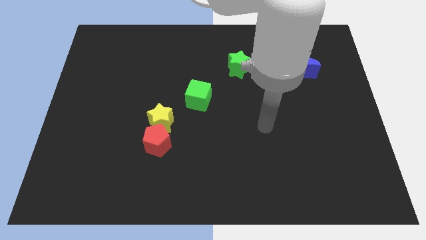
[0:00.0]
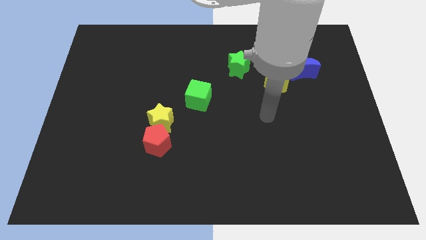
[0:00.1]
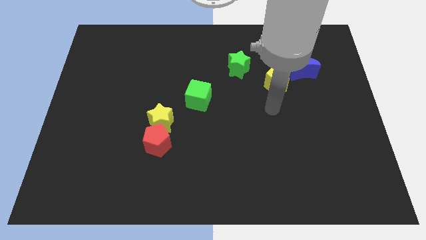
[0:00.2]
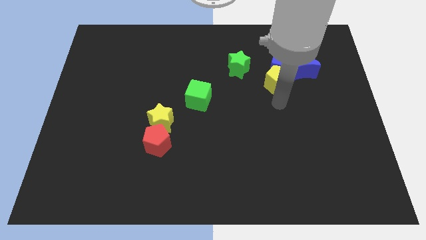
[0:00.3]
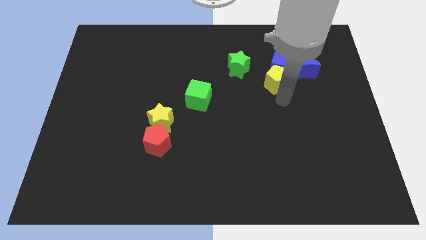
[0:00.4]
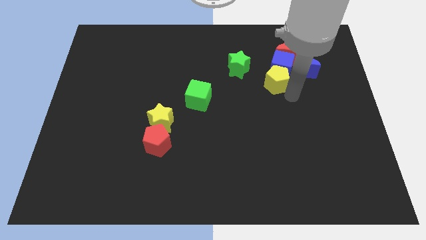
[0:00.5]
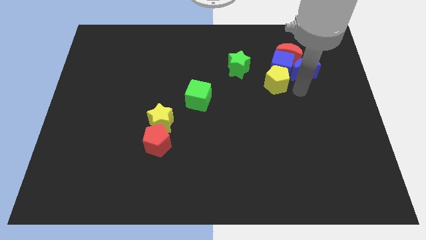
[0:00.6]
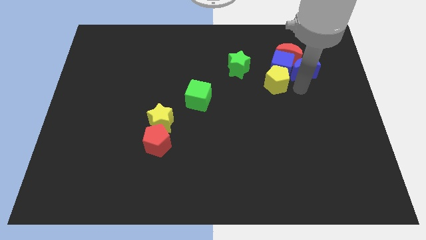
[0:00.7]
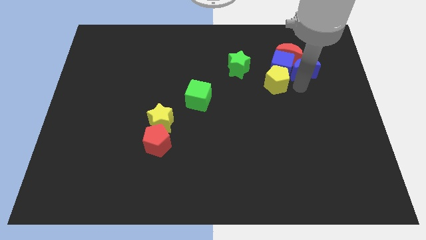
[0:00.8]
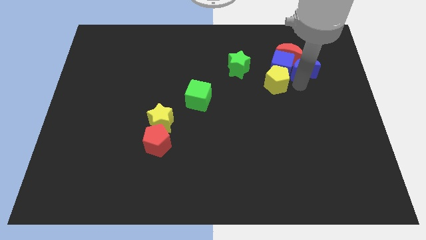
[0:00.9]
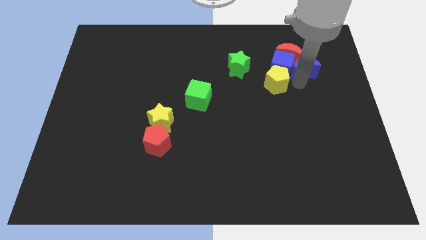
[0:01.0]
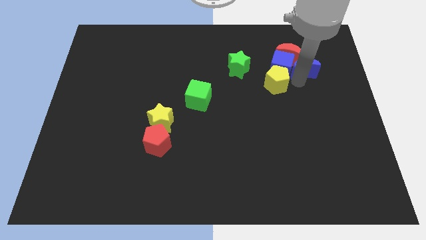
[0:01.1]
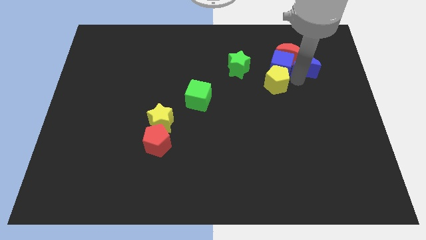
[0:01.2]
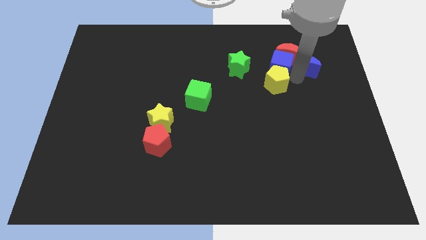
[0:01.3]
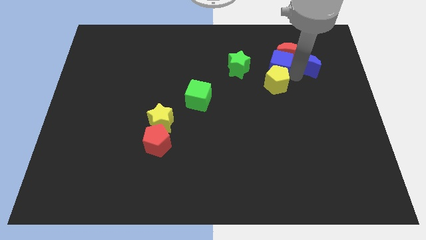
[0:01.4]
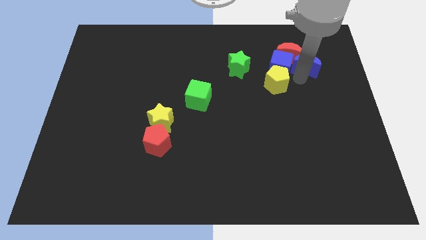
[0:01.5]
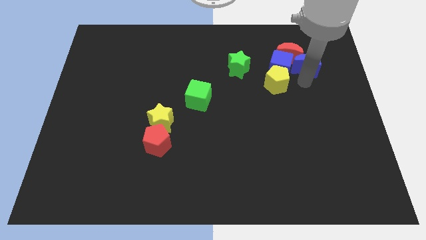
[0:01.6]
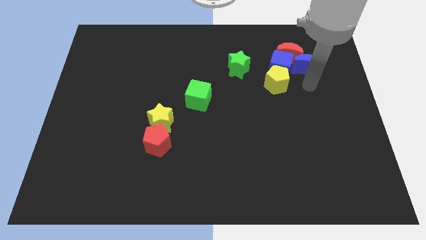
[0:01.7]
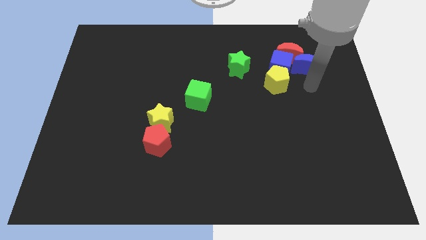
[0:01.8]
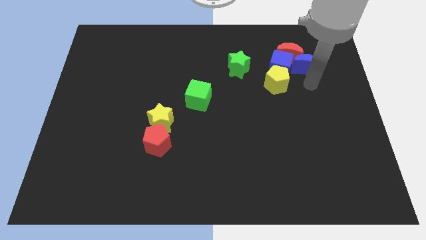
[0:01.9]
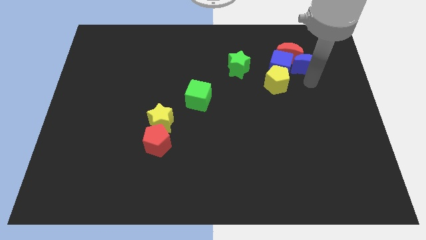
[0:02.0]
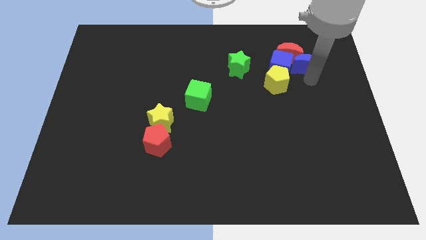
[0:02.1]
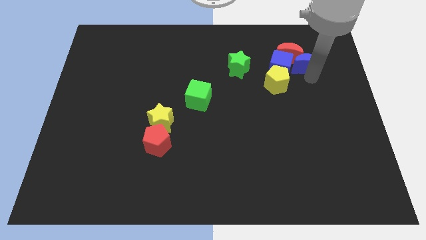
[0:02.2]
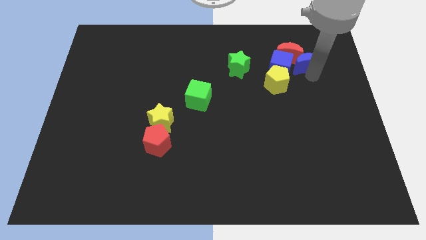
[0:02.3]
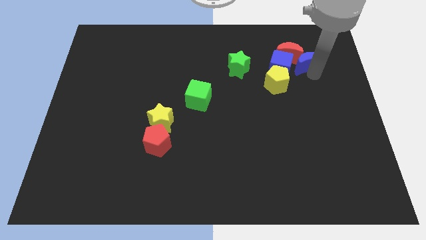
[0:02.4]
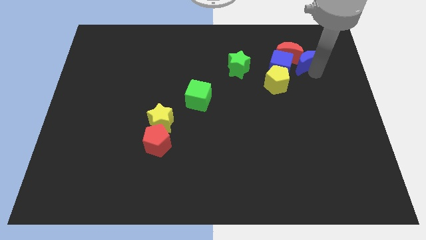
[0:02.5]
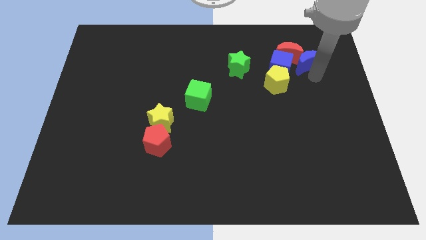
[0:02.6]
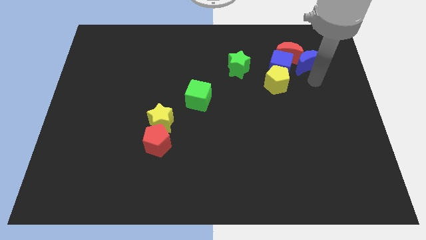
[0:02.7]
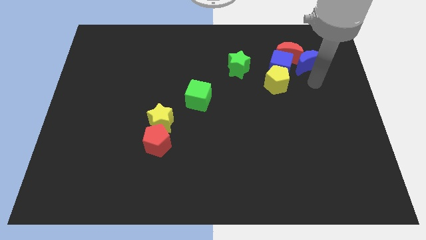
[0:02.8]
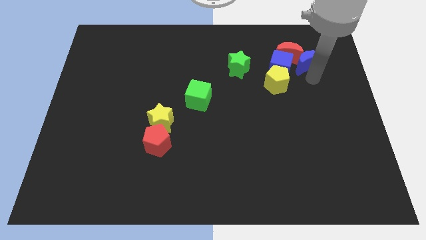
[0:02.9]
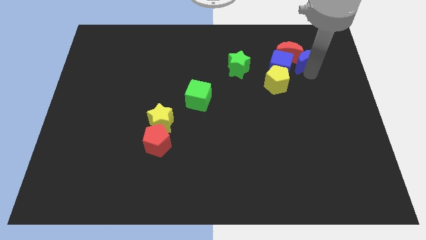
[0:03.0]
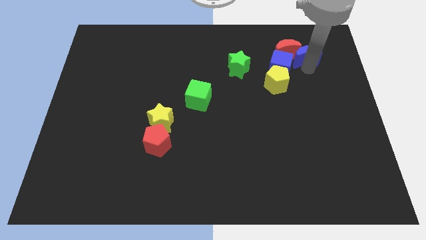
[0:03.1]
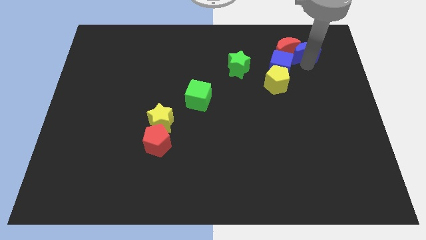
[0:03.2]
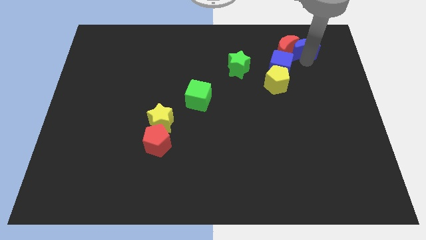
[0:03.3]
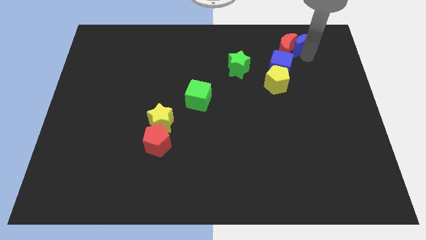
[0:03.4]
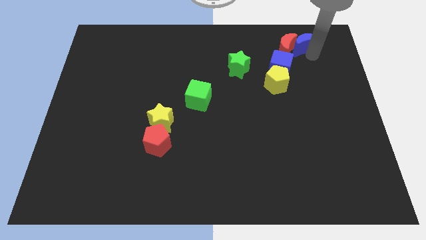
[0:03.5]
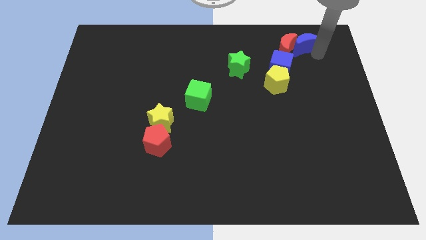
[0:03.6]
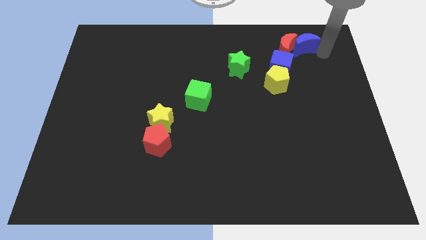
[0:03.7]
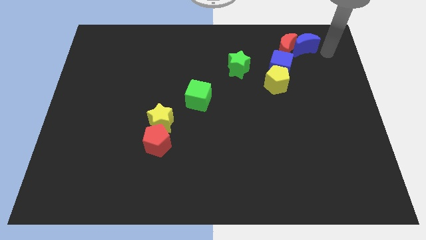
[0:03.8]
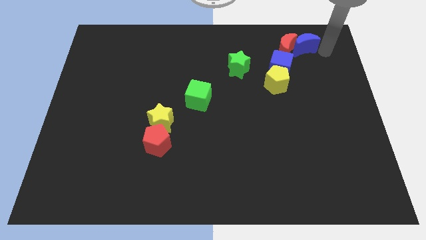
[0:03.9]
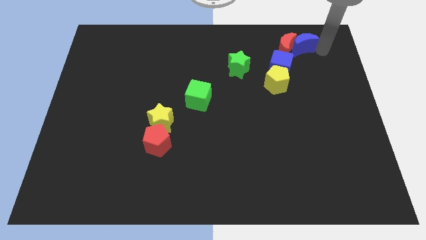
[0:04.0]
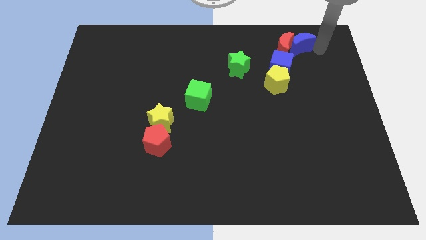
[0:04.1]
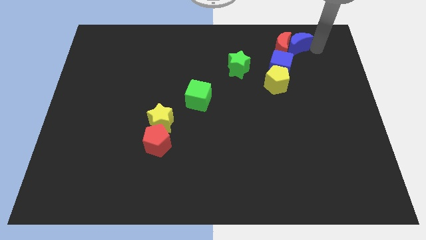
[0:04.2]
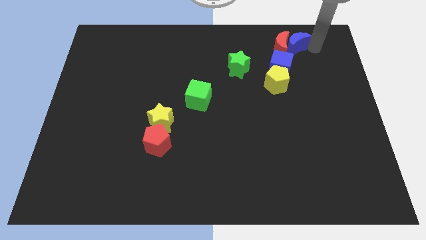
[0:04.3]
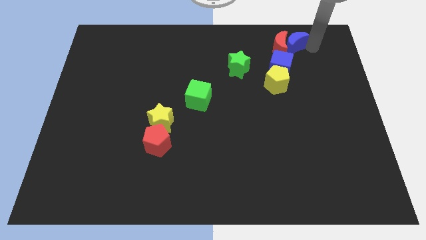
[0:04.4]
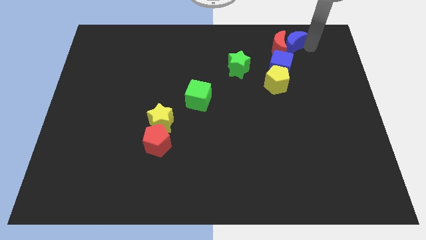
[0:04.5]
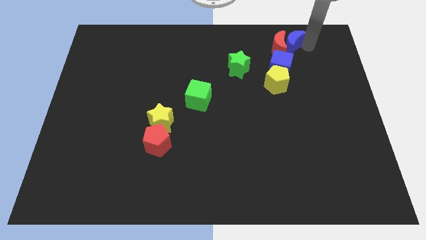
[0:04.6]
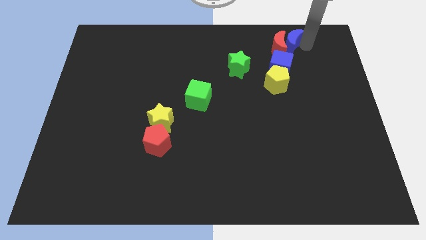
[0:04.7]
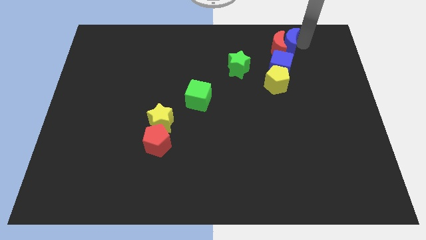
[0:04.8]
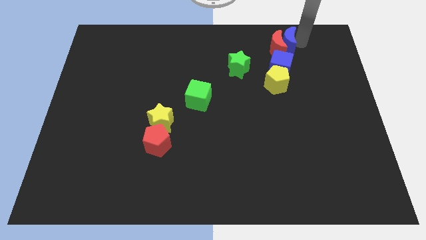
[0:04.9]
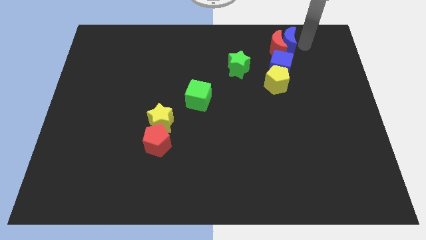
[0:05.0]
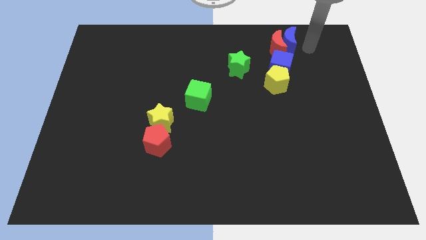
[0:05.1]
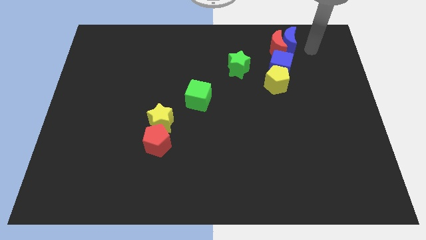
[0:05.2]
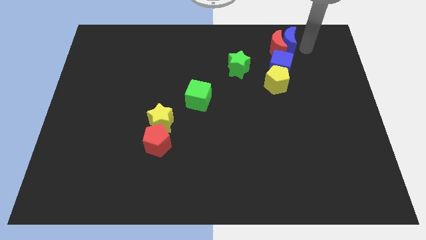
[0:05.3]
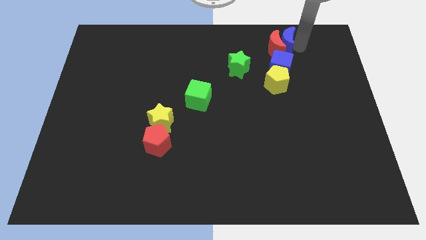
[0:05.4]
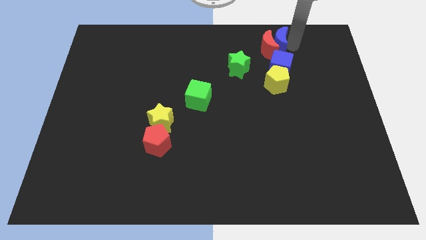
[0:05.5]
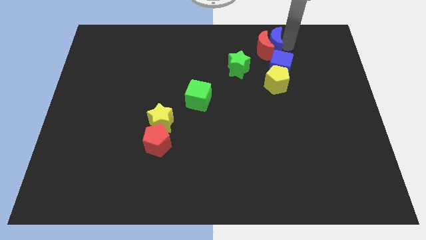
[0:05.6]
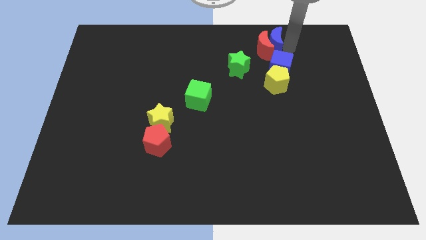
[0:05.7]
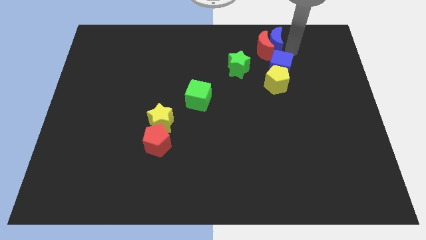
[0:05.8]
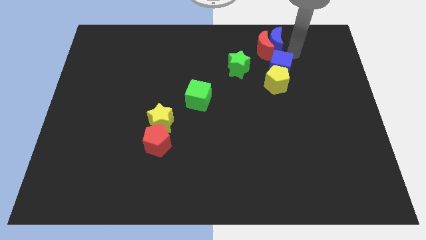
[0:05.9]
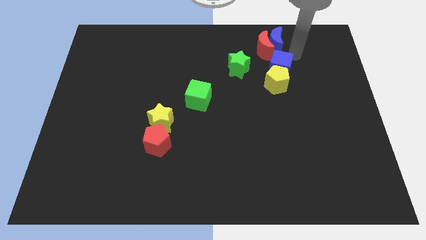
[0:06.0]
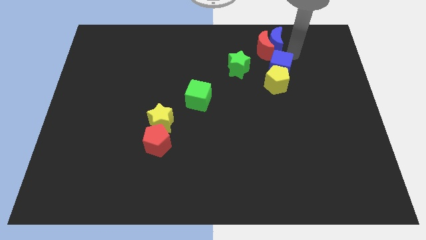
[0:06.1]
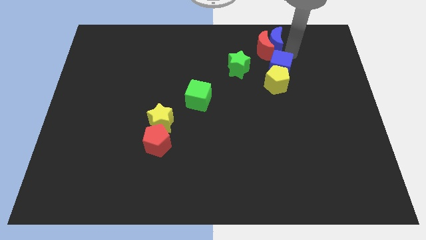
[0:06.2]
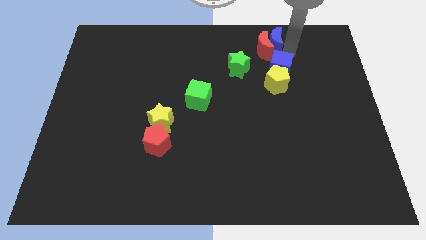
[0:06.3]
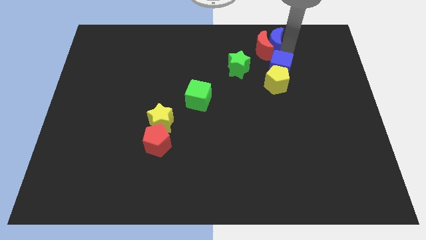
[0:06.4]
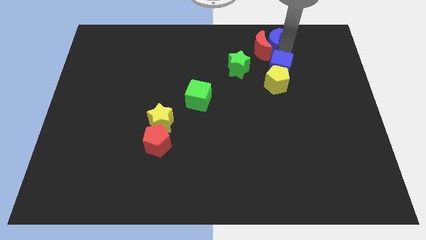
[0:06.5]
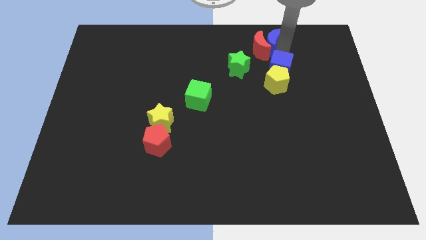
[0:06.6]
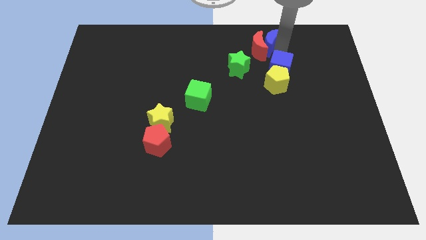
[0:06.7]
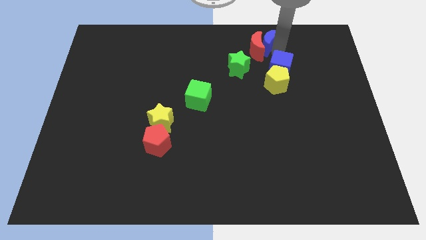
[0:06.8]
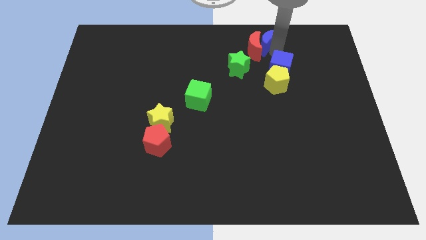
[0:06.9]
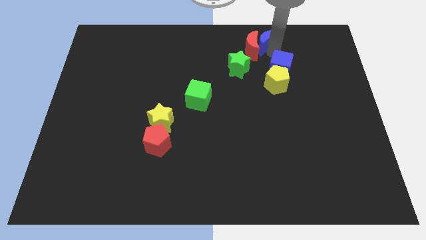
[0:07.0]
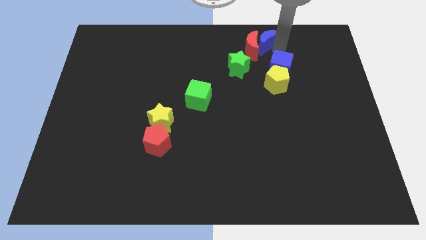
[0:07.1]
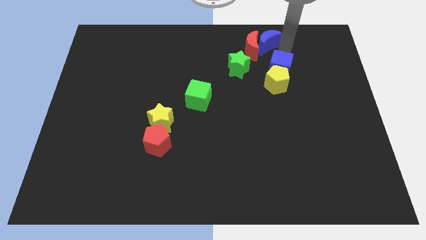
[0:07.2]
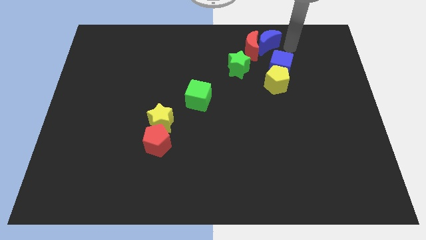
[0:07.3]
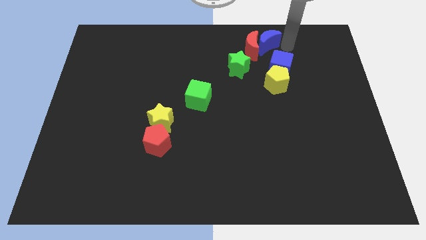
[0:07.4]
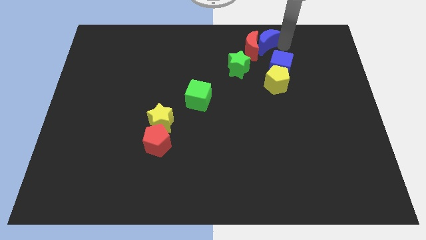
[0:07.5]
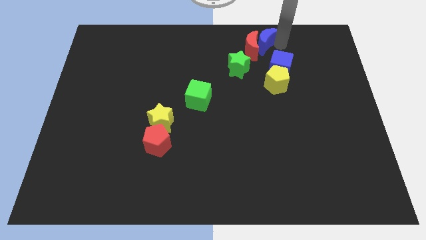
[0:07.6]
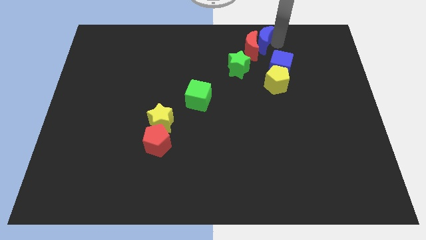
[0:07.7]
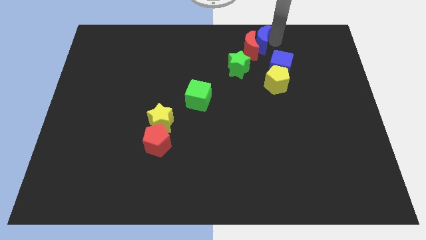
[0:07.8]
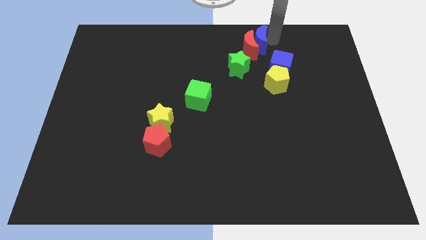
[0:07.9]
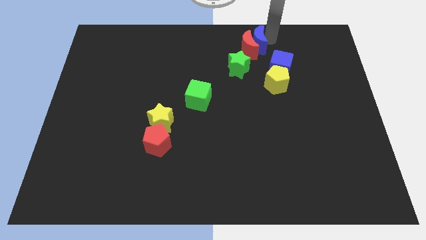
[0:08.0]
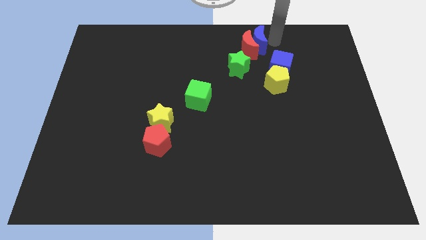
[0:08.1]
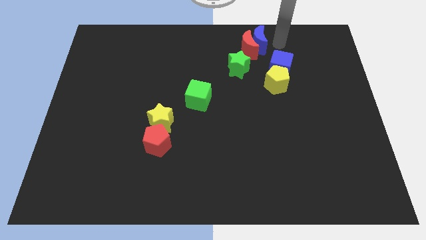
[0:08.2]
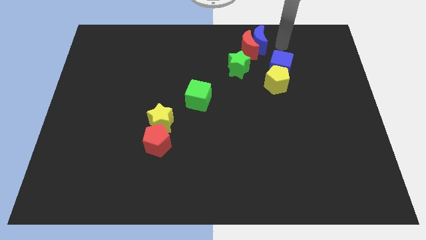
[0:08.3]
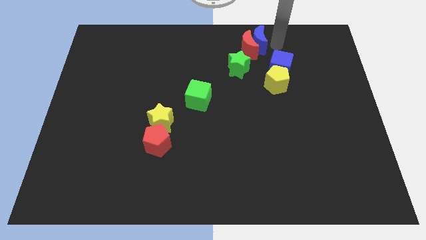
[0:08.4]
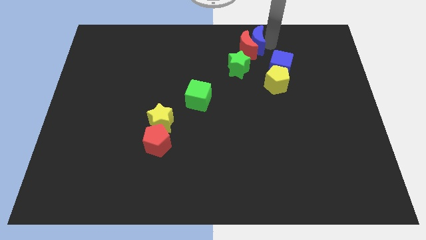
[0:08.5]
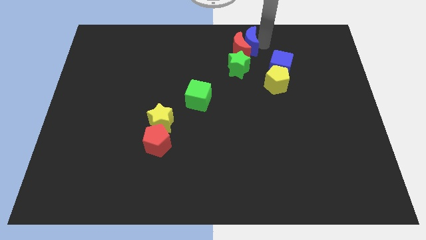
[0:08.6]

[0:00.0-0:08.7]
put the blue moon to the towards your base
